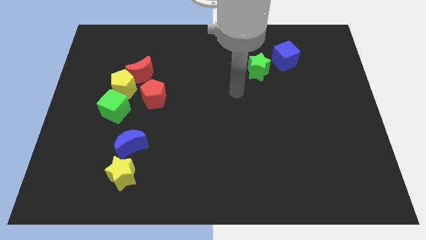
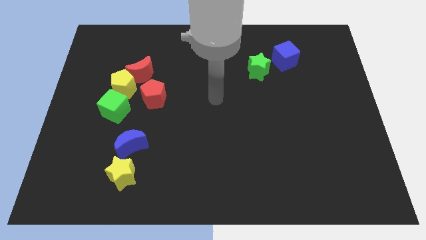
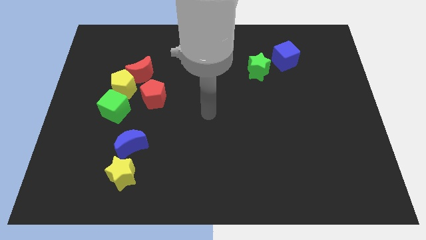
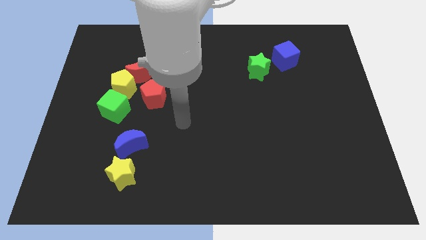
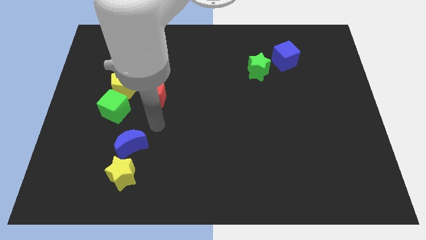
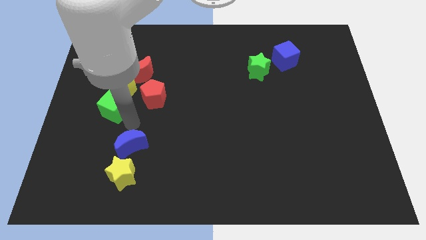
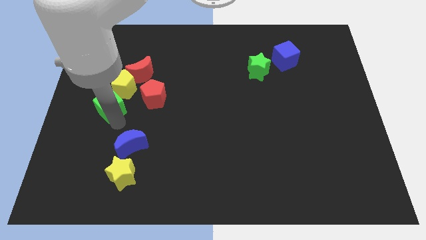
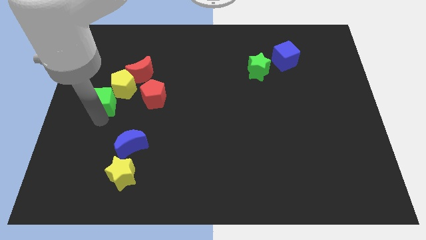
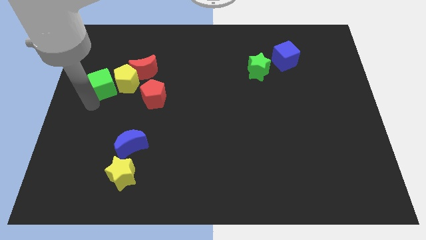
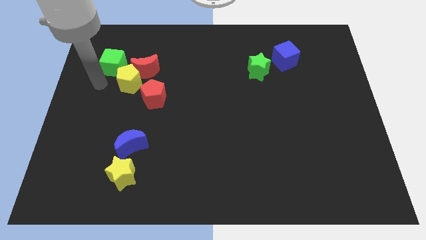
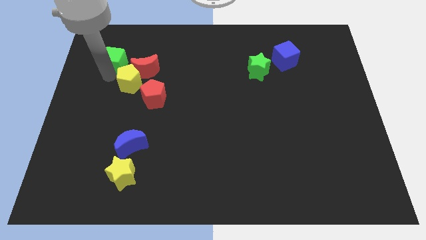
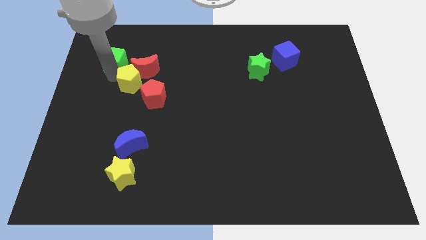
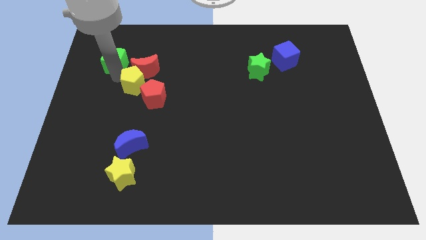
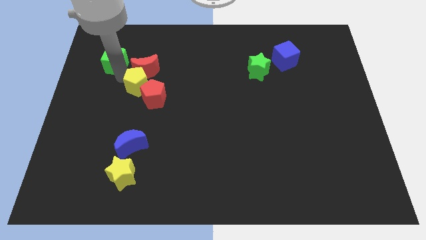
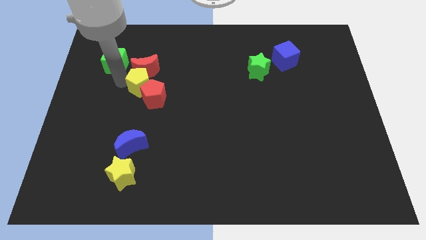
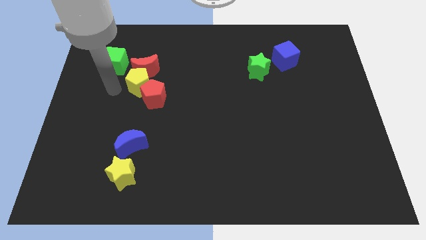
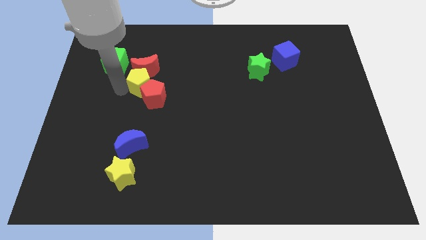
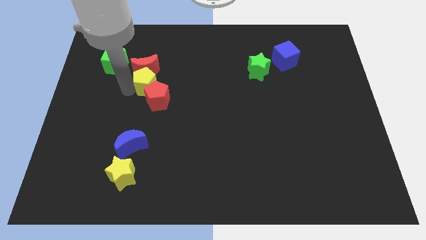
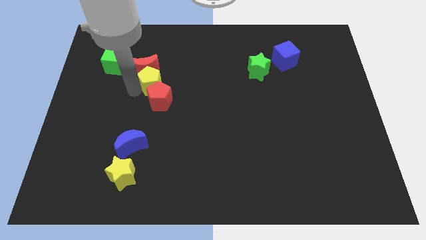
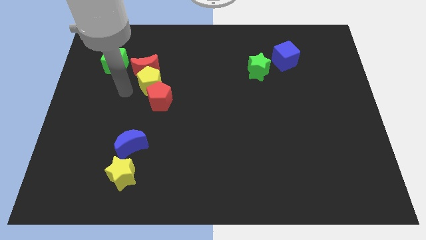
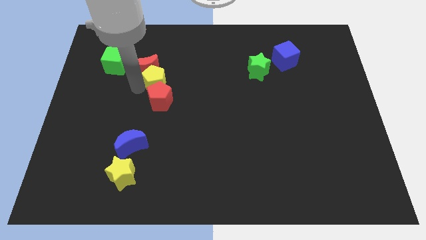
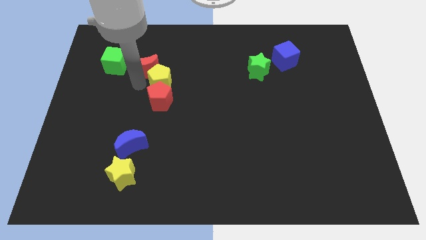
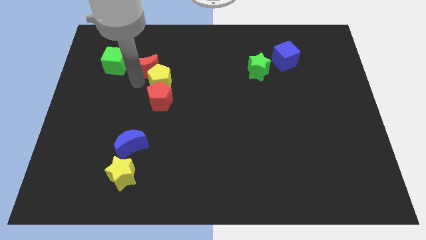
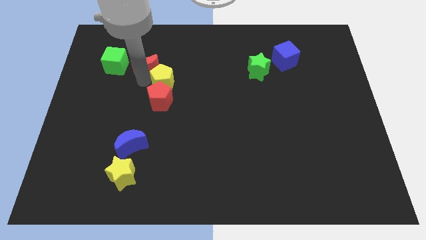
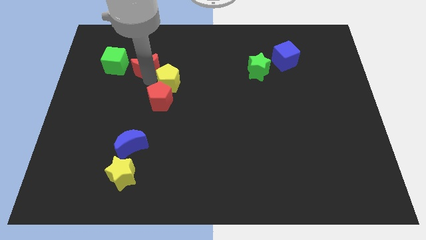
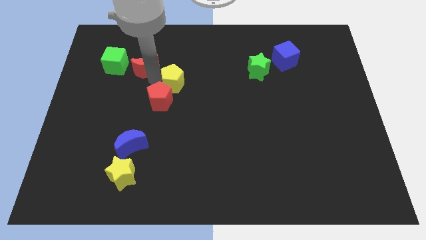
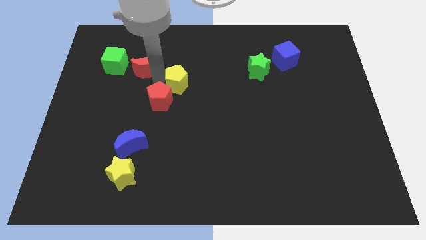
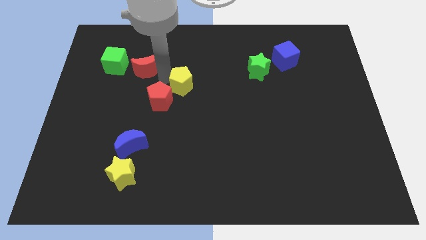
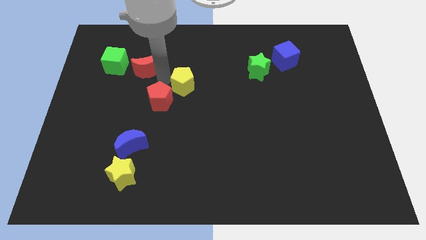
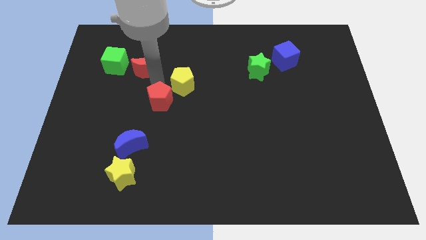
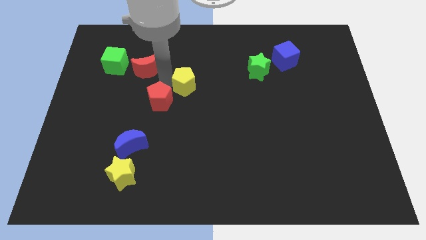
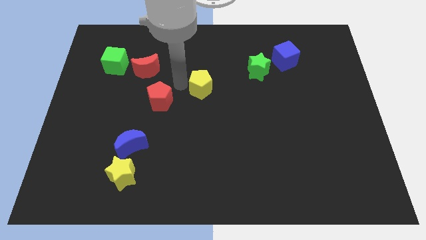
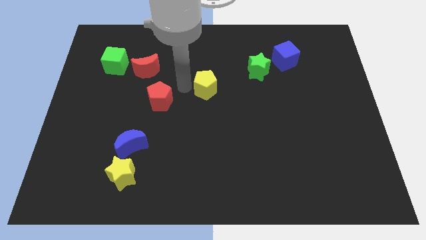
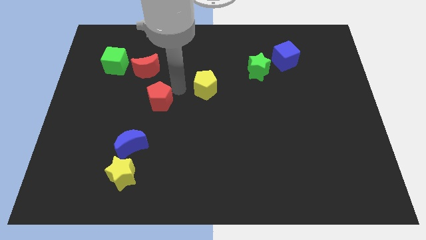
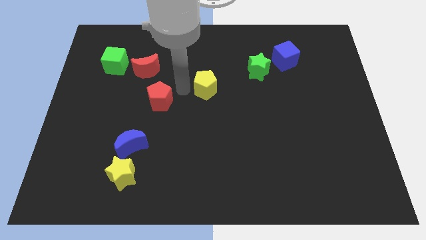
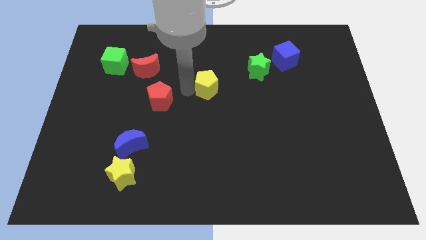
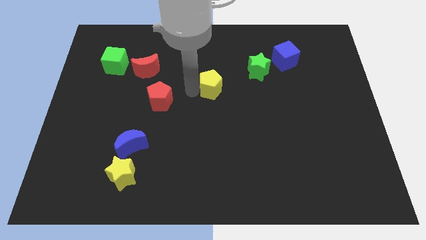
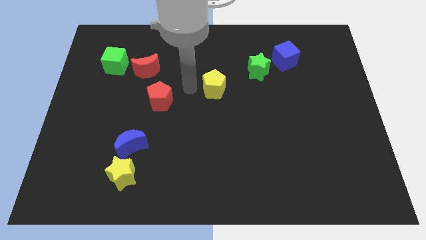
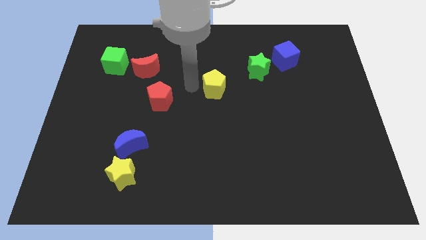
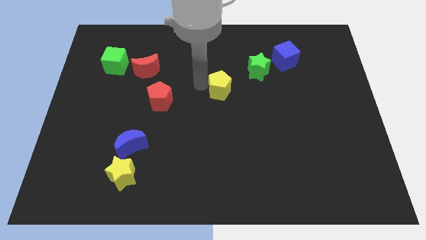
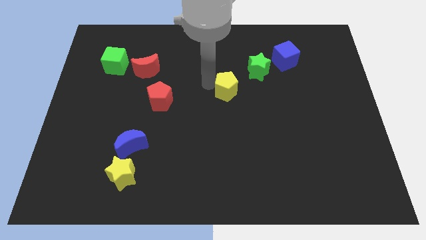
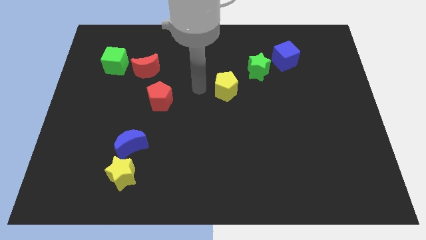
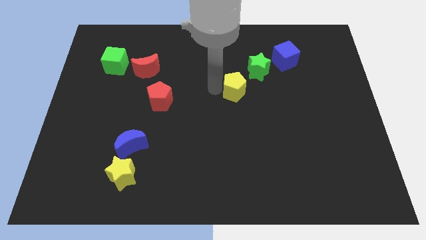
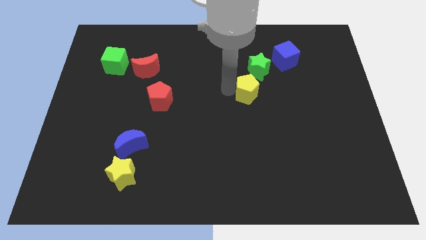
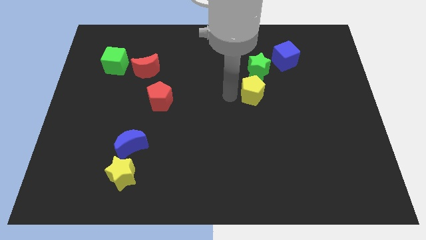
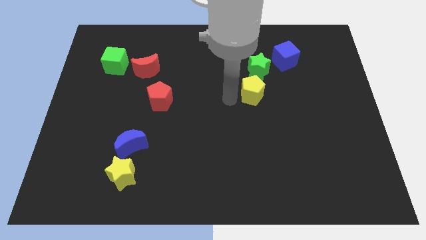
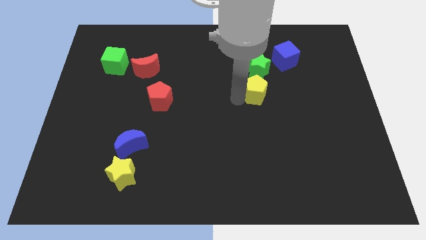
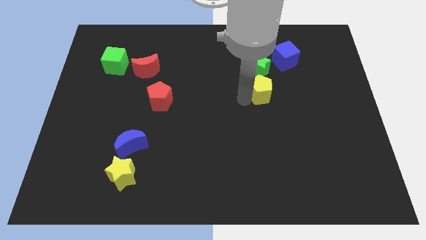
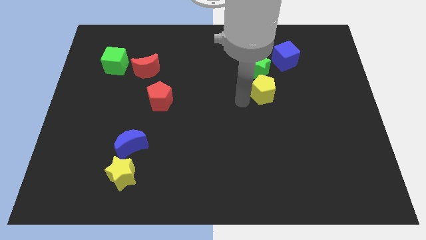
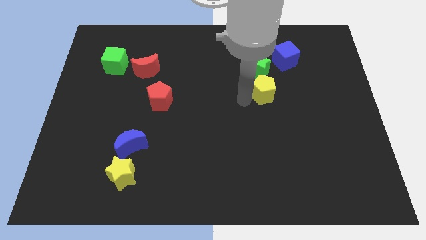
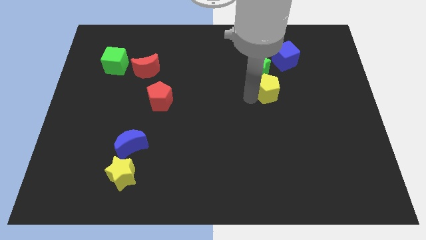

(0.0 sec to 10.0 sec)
push the yellow pentagon diagonally down and to the right of the green star

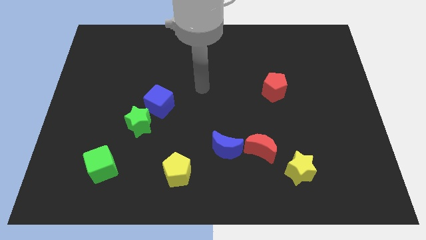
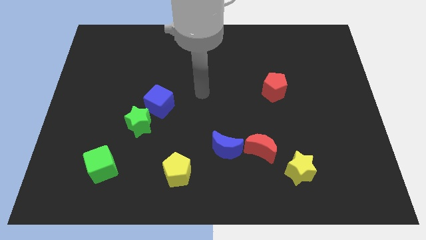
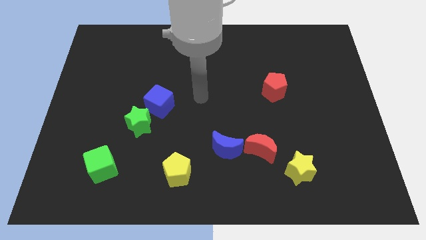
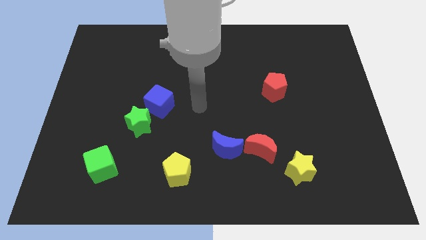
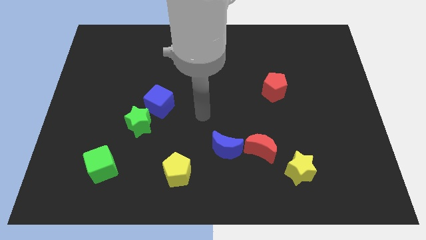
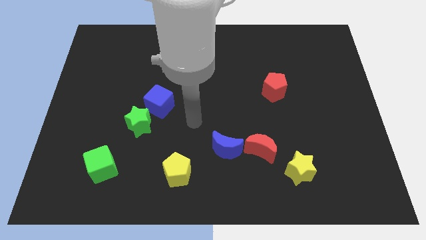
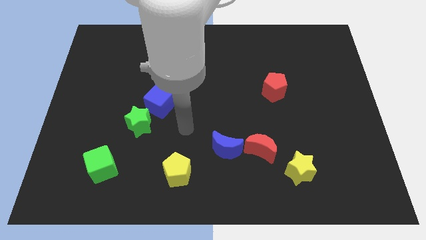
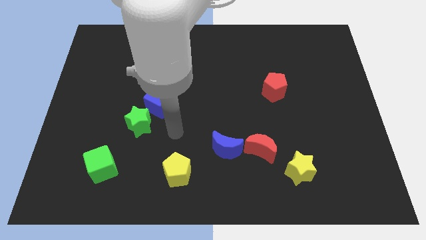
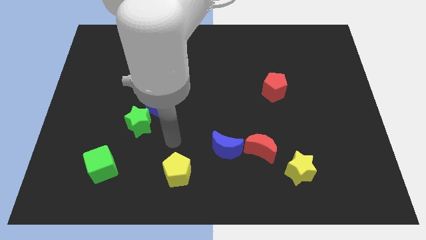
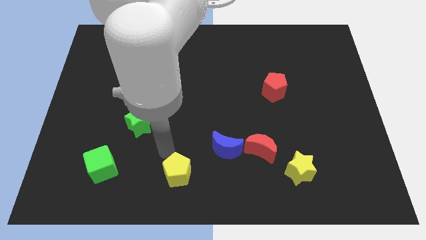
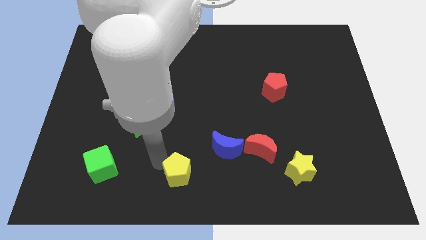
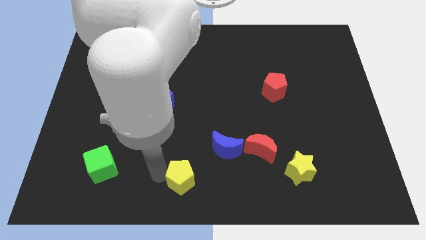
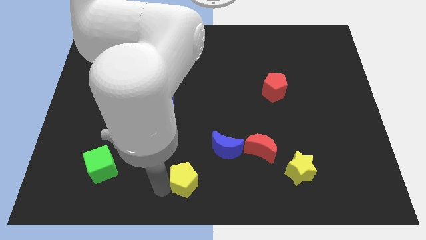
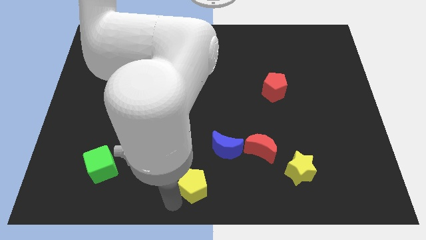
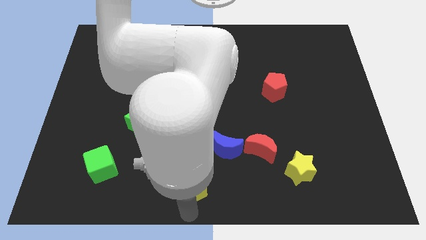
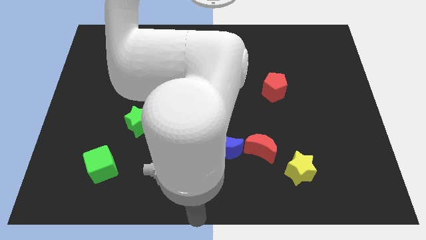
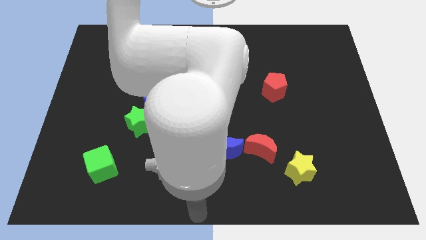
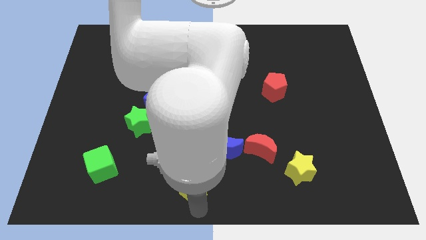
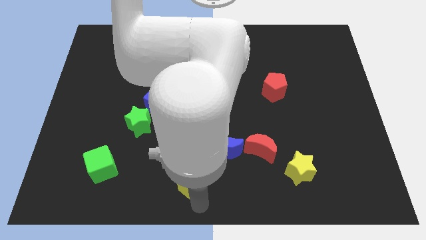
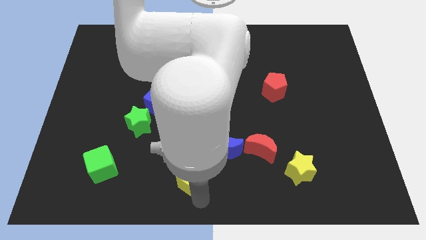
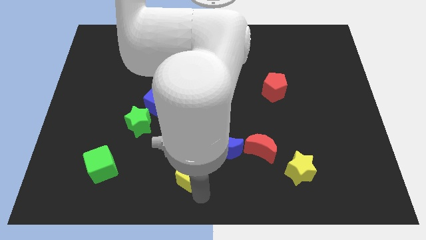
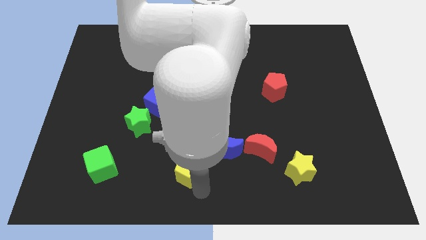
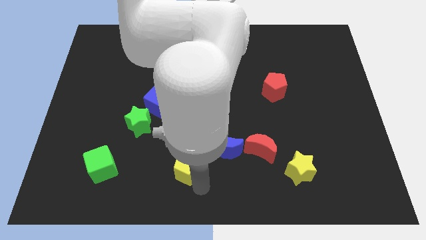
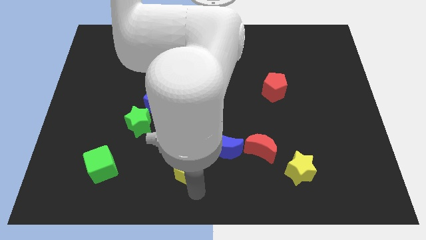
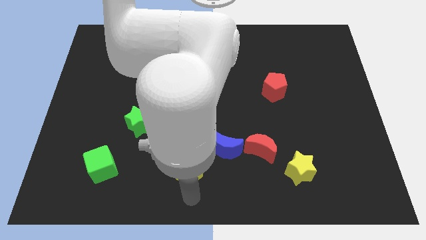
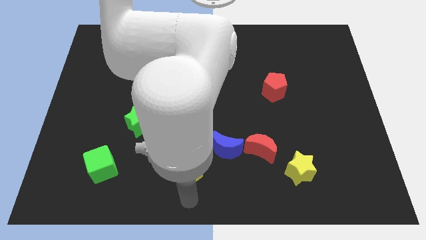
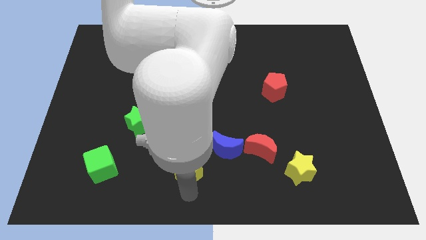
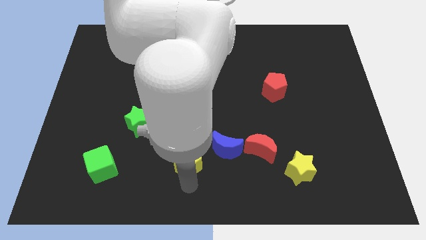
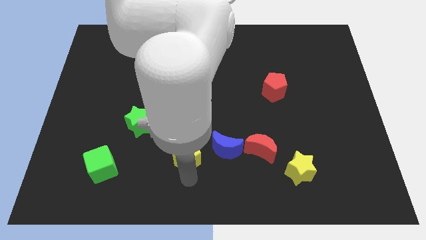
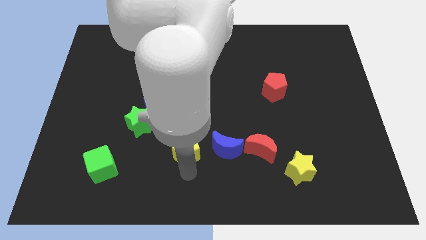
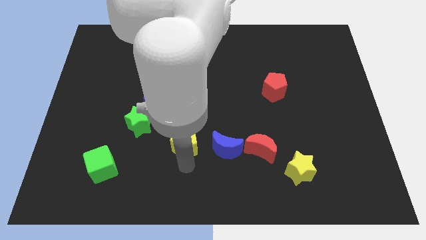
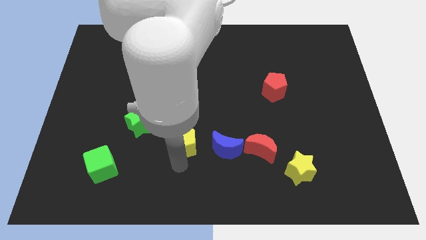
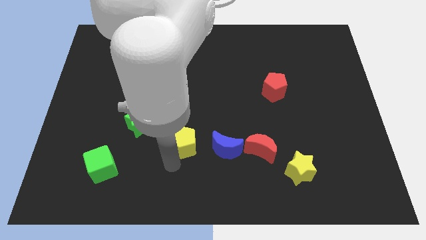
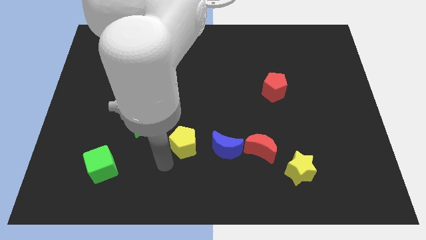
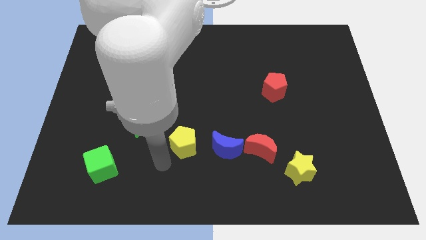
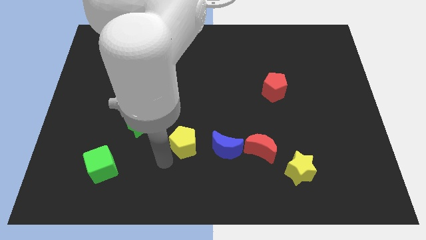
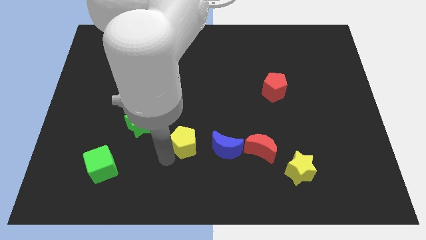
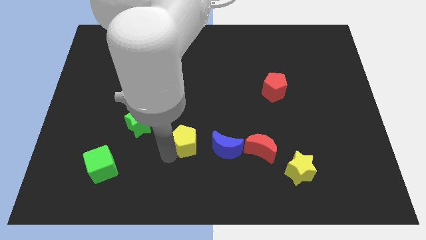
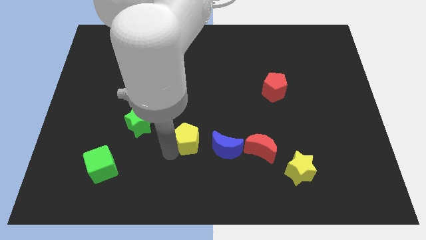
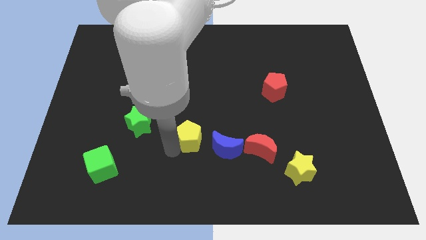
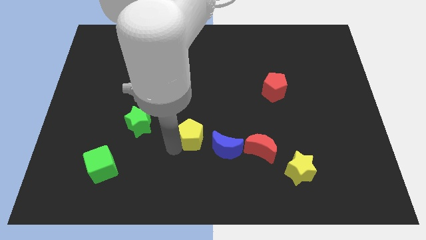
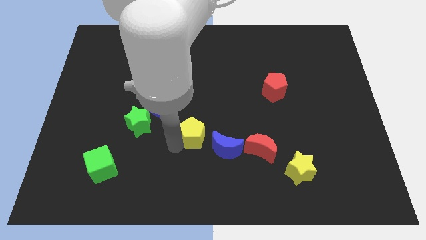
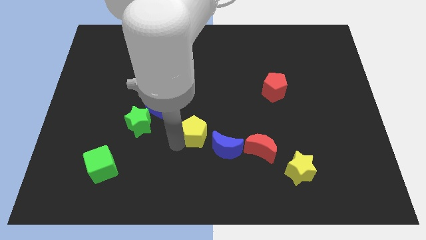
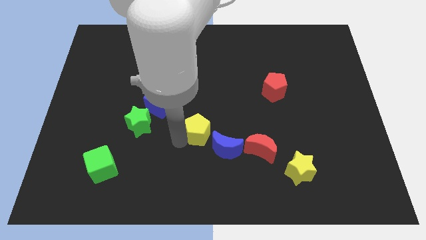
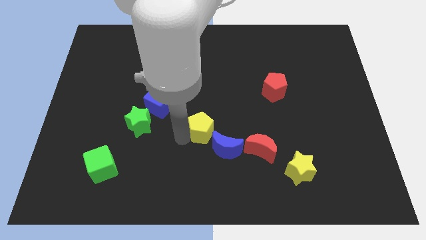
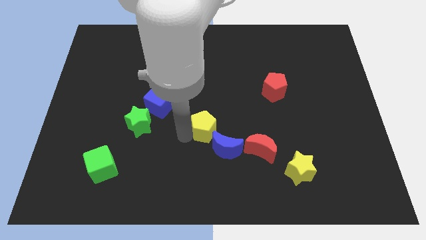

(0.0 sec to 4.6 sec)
move the yellow pentagon to the top side of the blue moon
